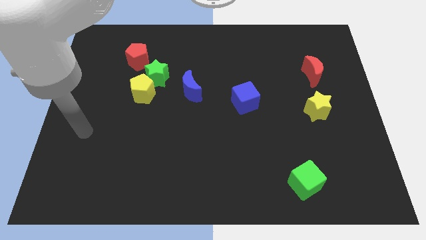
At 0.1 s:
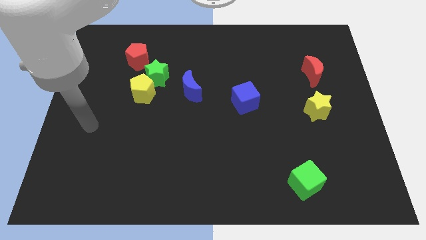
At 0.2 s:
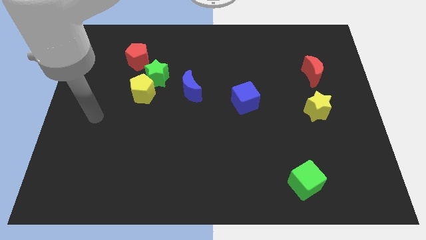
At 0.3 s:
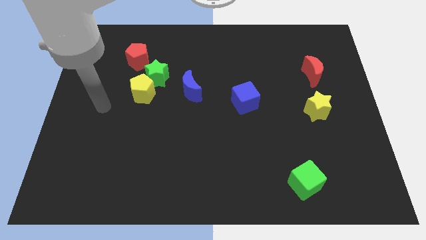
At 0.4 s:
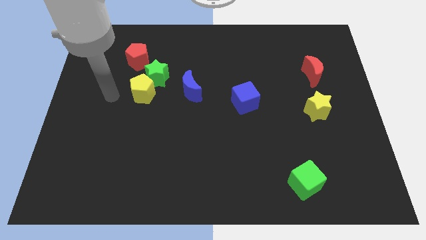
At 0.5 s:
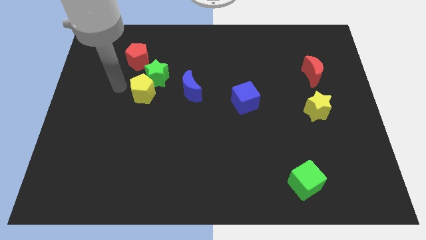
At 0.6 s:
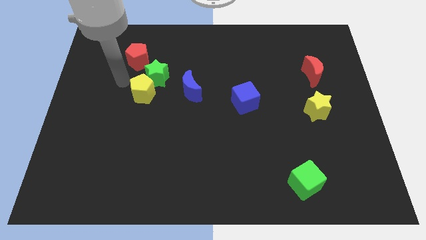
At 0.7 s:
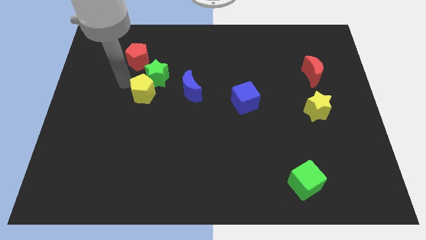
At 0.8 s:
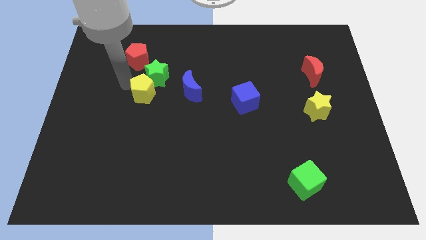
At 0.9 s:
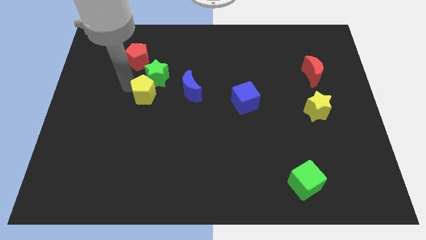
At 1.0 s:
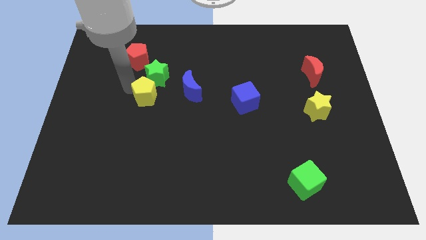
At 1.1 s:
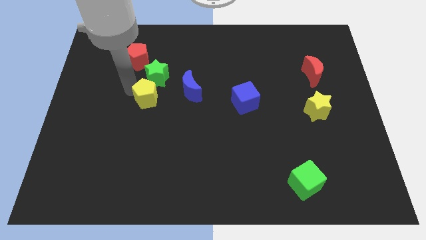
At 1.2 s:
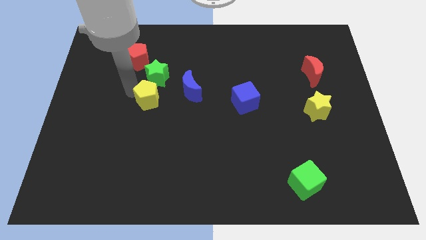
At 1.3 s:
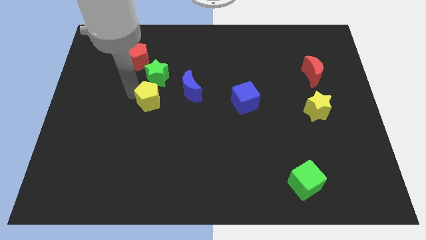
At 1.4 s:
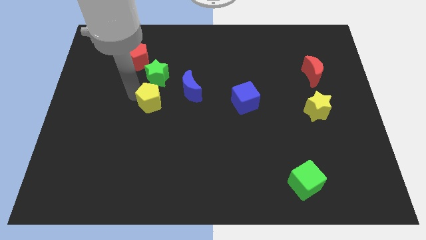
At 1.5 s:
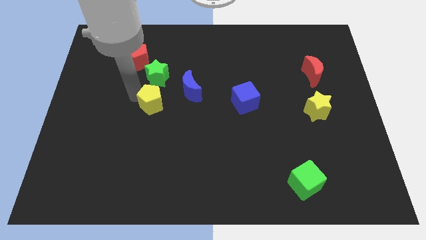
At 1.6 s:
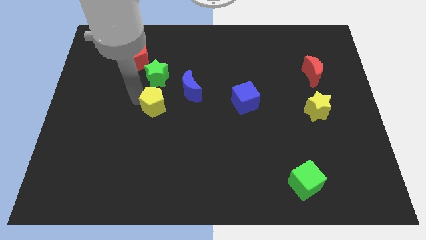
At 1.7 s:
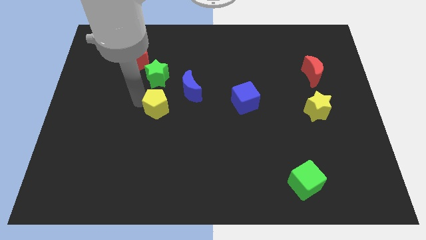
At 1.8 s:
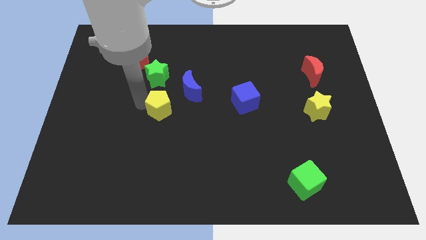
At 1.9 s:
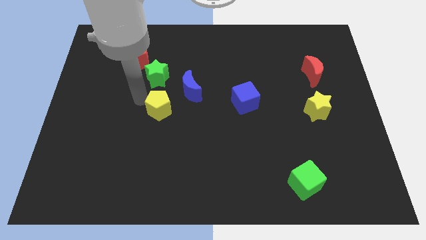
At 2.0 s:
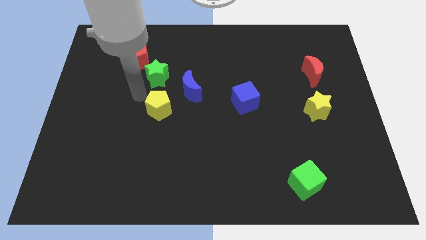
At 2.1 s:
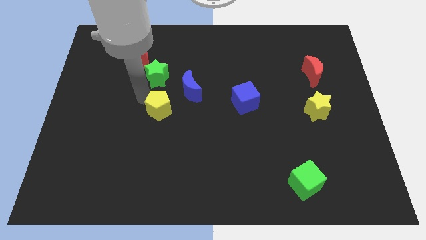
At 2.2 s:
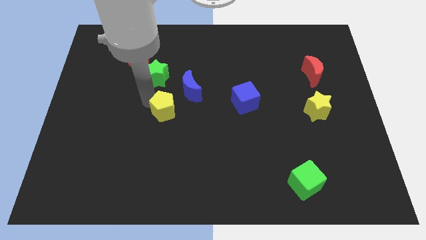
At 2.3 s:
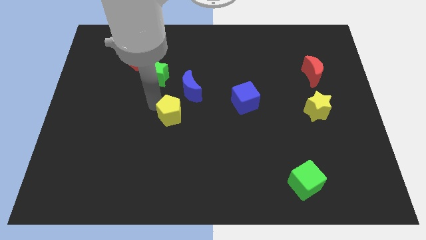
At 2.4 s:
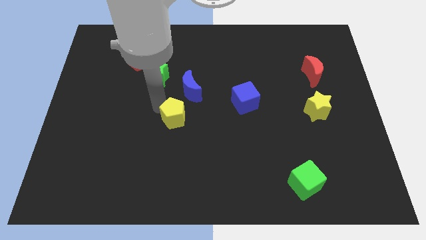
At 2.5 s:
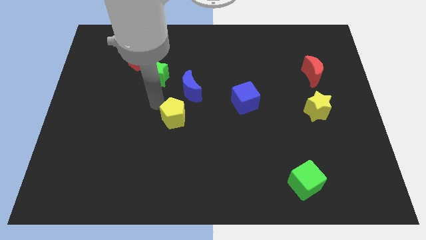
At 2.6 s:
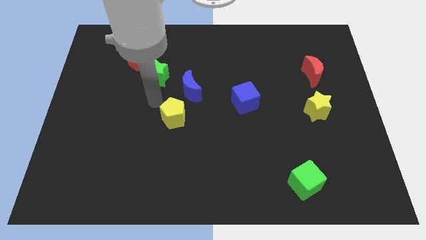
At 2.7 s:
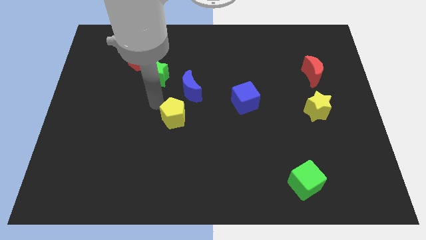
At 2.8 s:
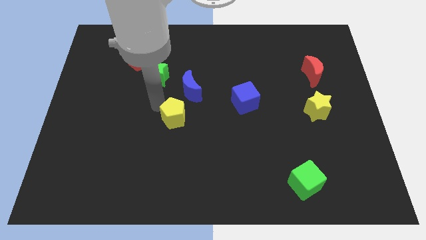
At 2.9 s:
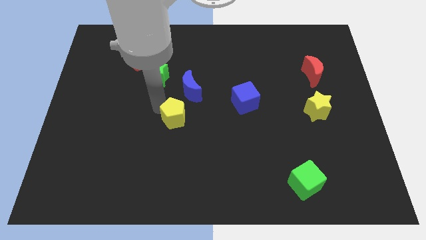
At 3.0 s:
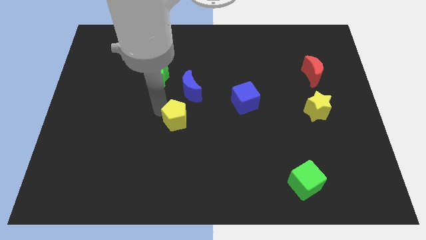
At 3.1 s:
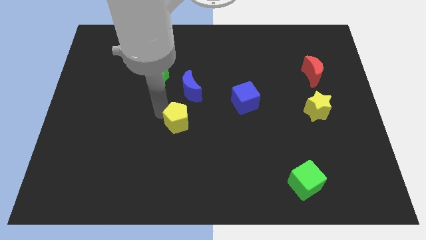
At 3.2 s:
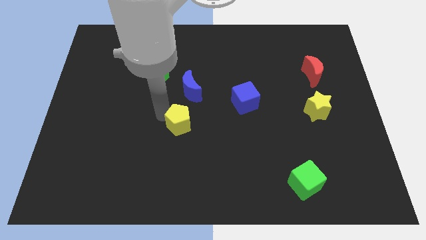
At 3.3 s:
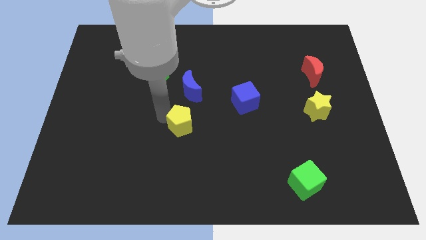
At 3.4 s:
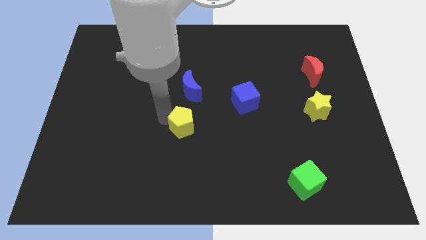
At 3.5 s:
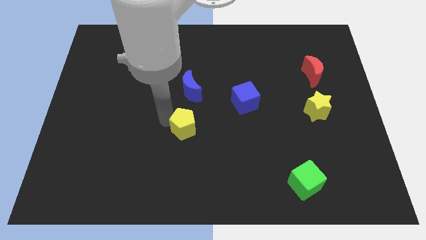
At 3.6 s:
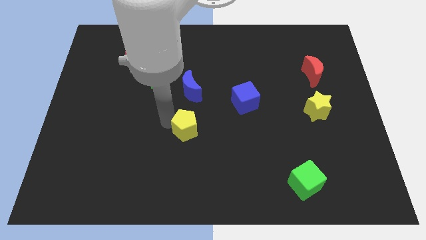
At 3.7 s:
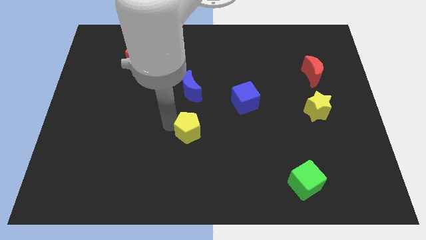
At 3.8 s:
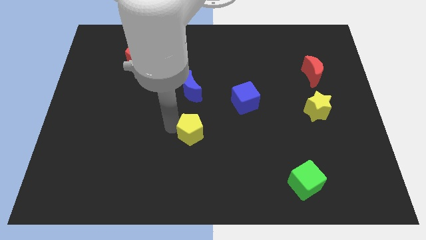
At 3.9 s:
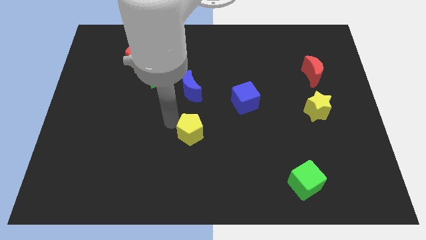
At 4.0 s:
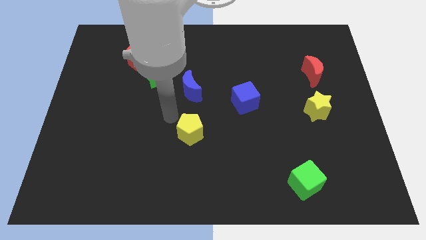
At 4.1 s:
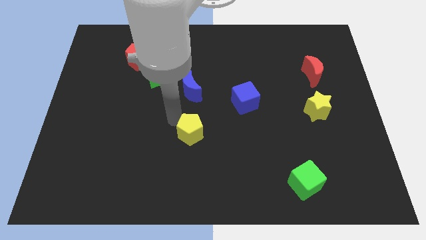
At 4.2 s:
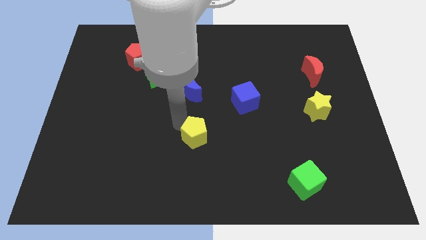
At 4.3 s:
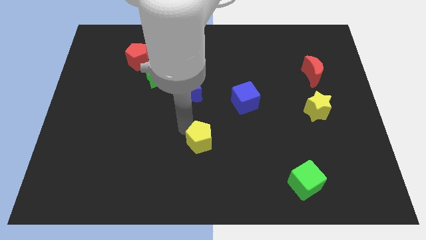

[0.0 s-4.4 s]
slide the yellow pentagon down and right diagonally

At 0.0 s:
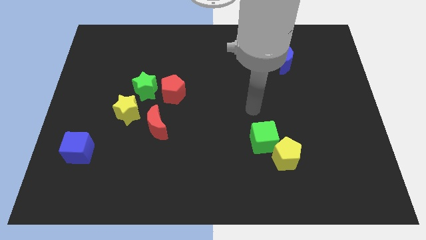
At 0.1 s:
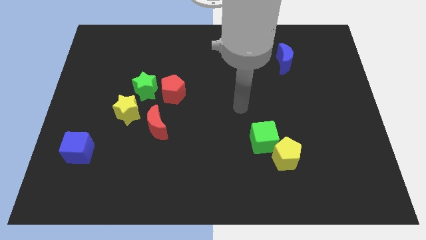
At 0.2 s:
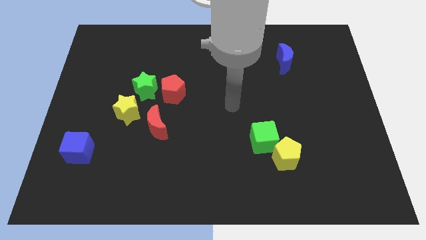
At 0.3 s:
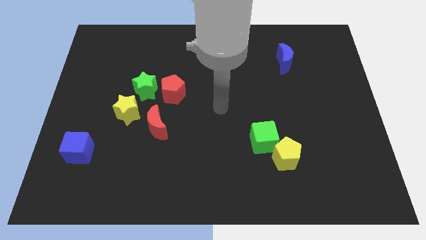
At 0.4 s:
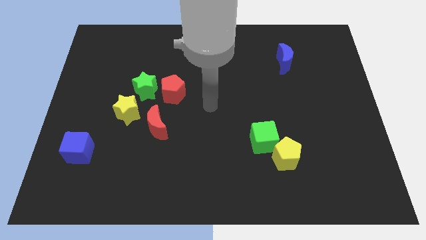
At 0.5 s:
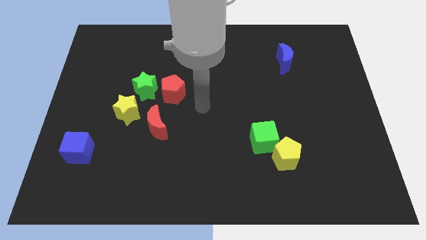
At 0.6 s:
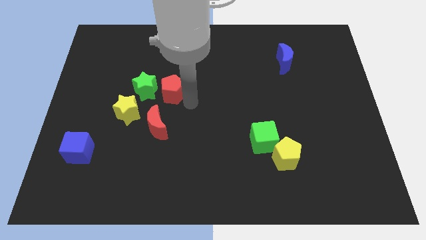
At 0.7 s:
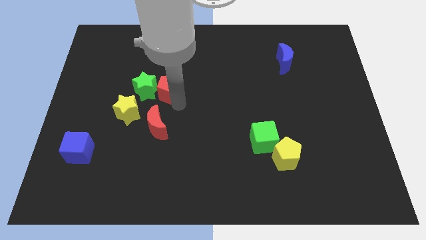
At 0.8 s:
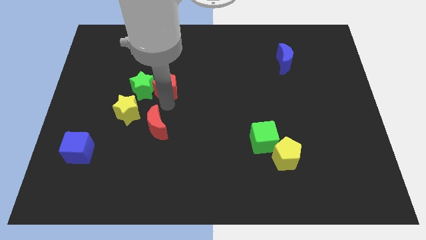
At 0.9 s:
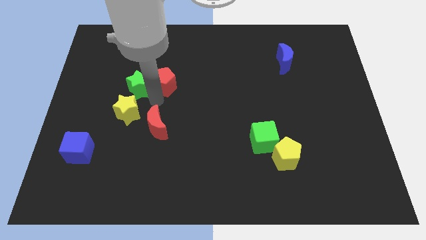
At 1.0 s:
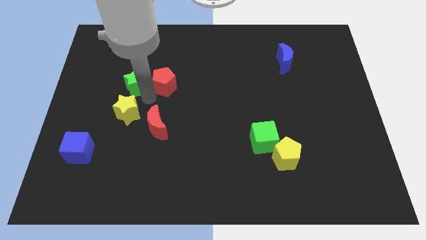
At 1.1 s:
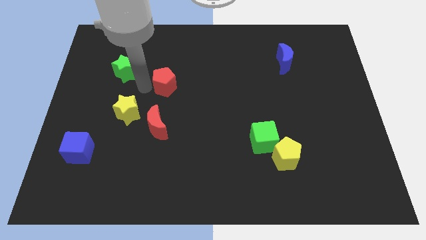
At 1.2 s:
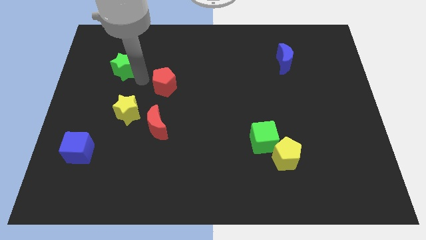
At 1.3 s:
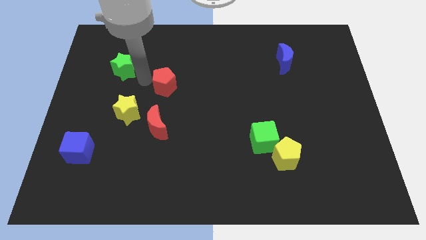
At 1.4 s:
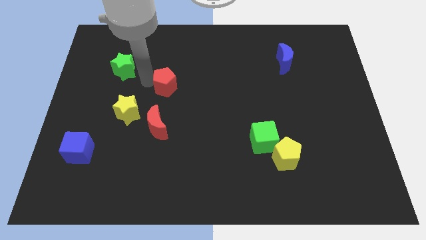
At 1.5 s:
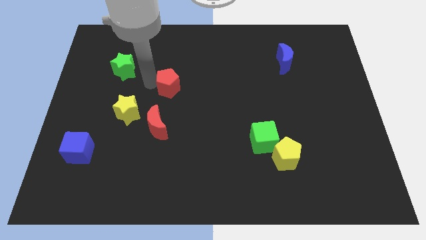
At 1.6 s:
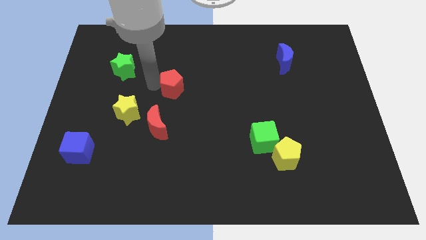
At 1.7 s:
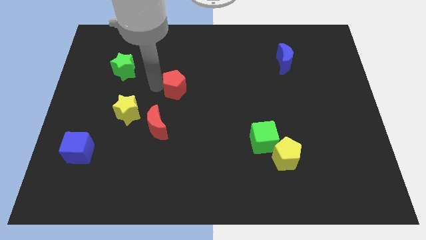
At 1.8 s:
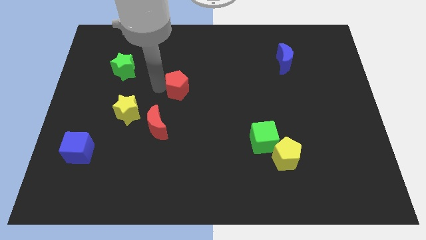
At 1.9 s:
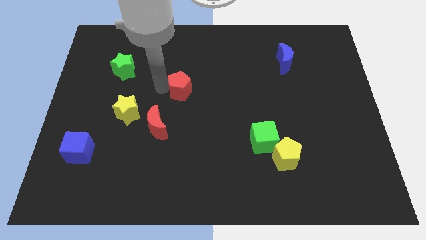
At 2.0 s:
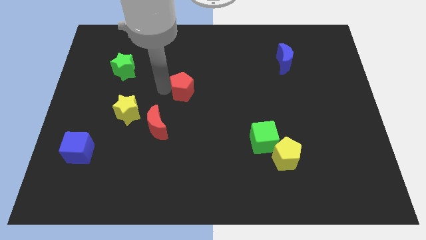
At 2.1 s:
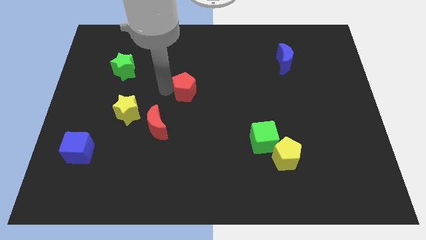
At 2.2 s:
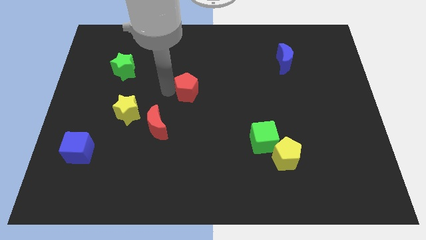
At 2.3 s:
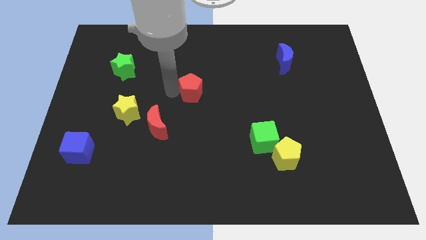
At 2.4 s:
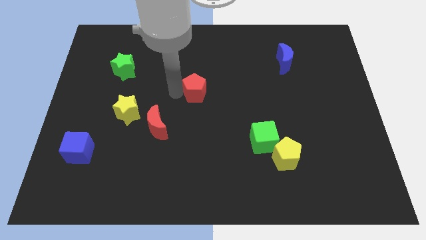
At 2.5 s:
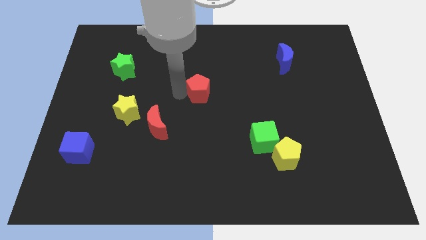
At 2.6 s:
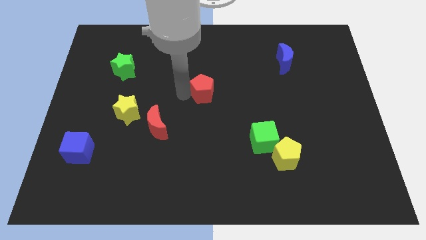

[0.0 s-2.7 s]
move the red pentagon a bit right

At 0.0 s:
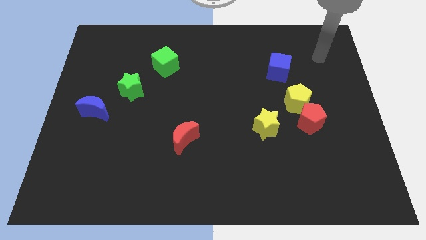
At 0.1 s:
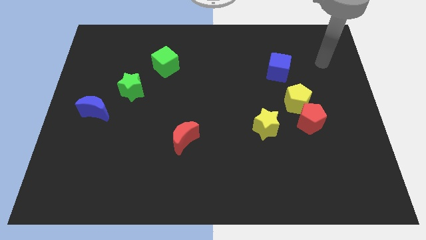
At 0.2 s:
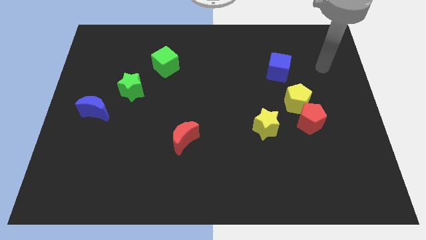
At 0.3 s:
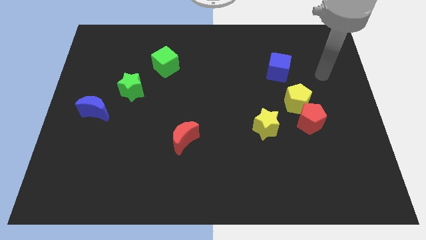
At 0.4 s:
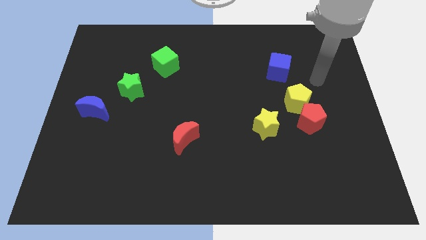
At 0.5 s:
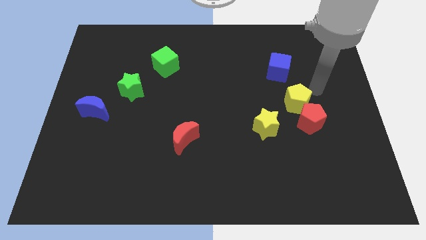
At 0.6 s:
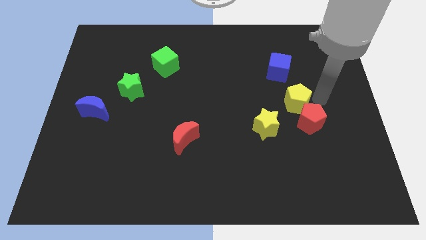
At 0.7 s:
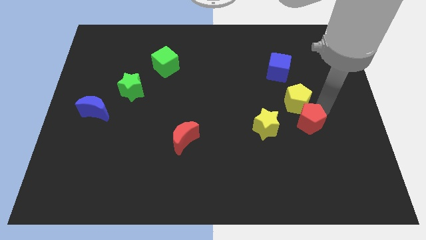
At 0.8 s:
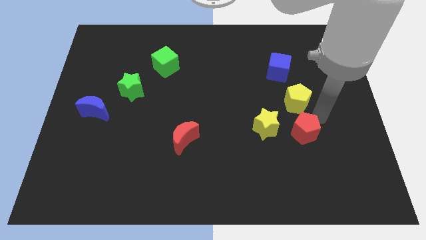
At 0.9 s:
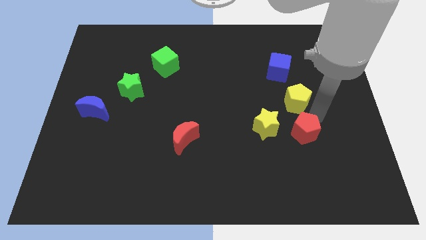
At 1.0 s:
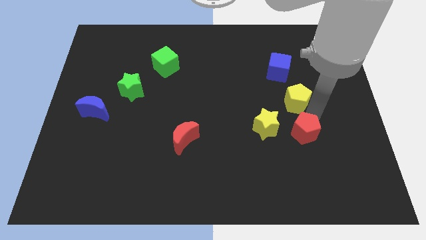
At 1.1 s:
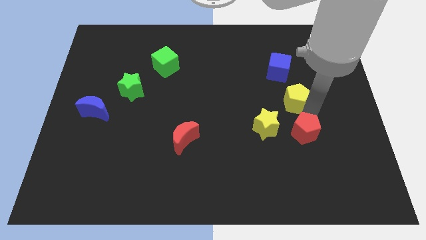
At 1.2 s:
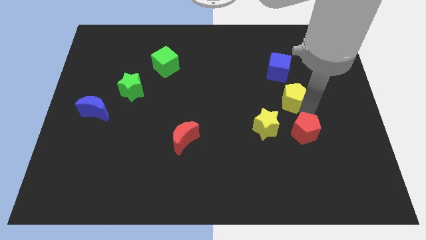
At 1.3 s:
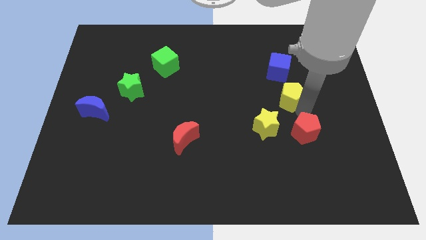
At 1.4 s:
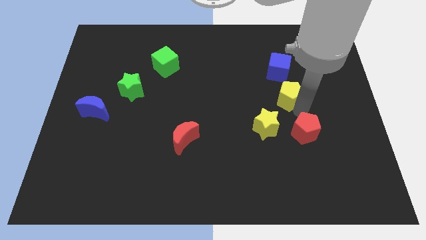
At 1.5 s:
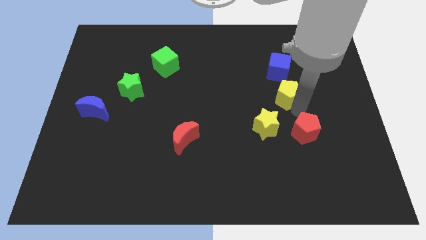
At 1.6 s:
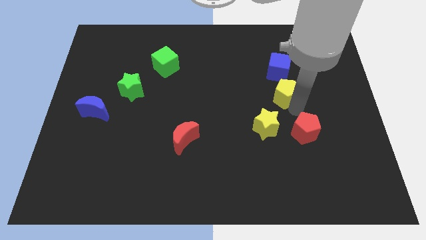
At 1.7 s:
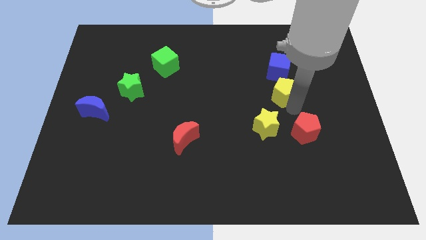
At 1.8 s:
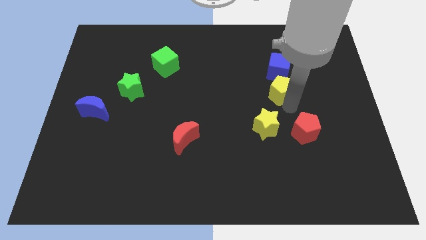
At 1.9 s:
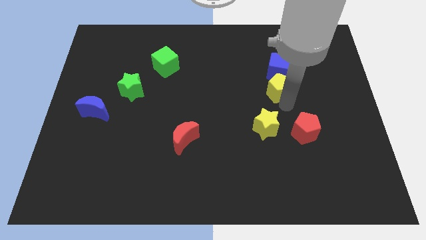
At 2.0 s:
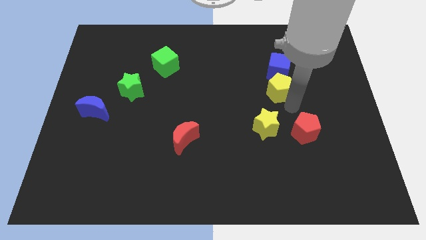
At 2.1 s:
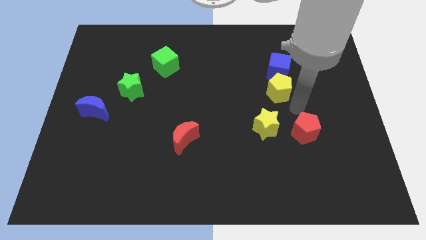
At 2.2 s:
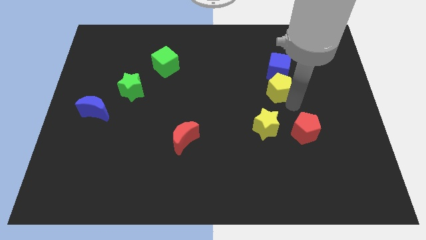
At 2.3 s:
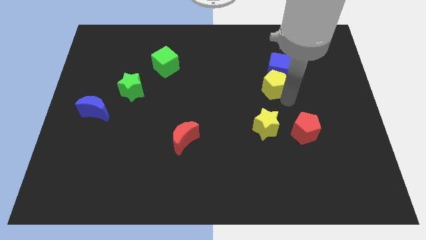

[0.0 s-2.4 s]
slide the yellow pentagon somewhat upwards and left
